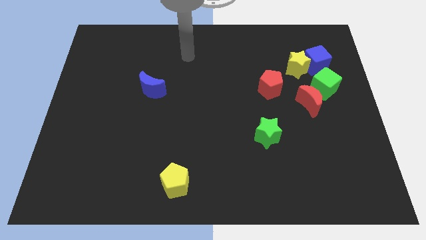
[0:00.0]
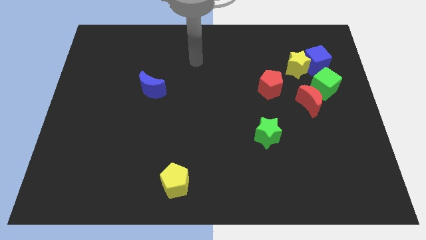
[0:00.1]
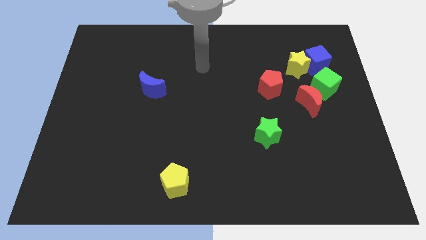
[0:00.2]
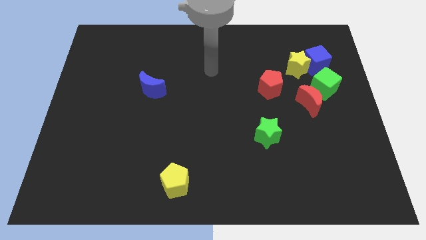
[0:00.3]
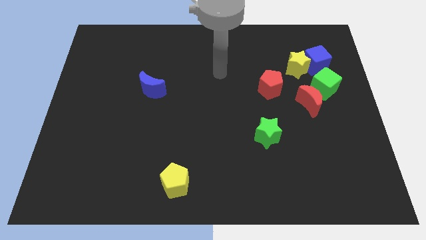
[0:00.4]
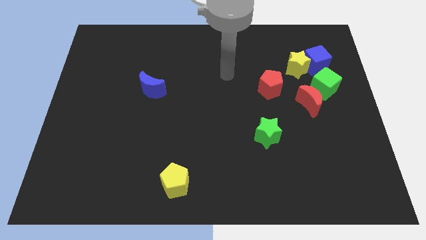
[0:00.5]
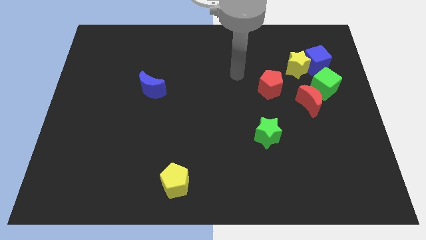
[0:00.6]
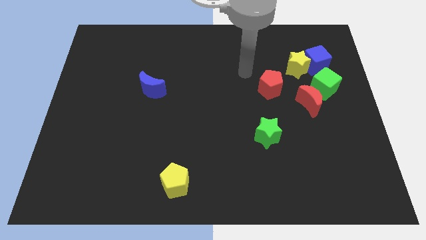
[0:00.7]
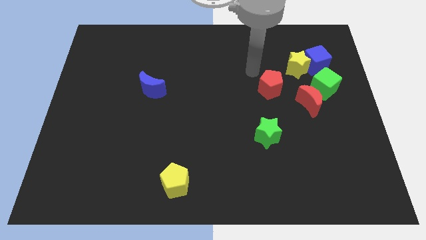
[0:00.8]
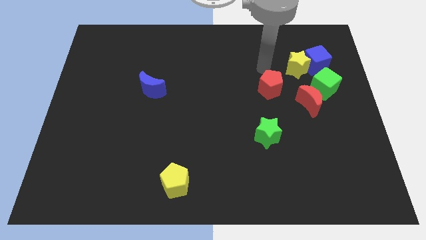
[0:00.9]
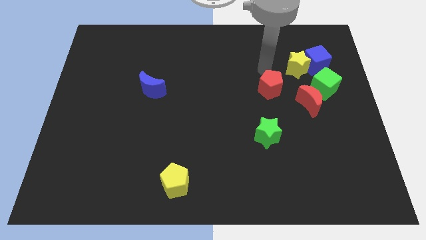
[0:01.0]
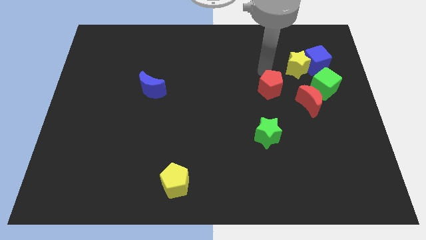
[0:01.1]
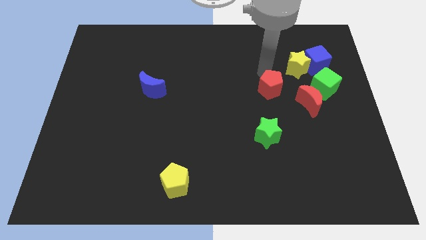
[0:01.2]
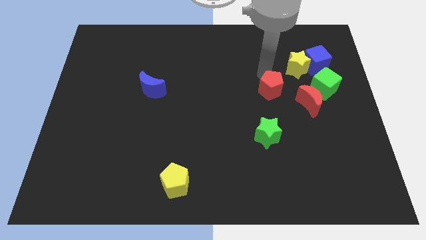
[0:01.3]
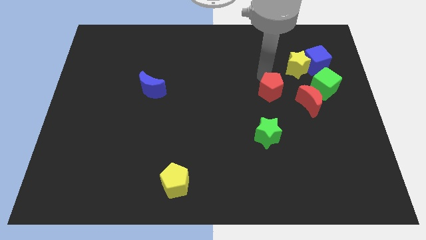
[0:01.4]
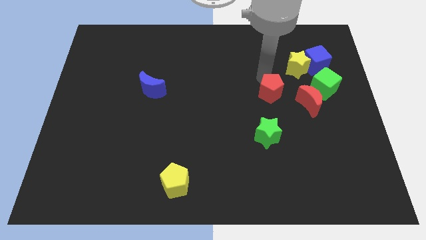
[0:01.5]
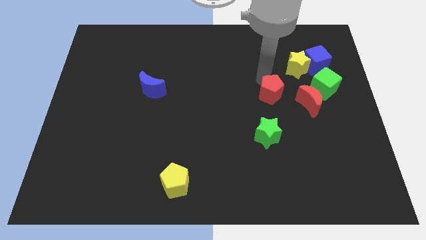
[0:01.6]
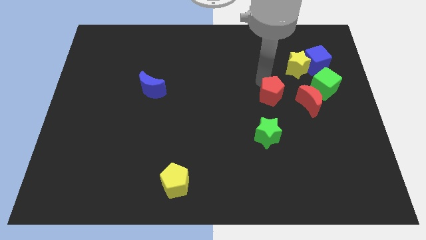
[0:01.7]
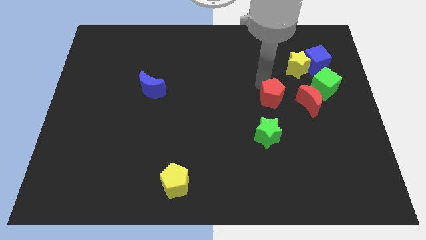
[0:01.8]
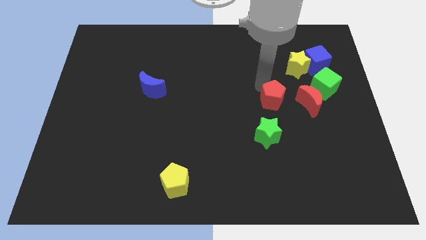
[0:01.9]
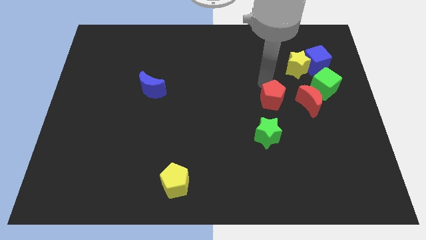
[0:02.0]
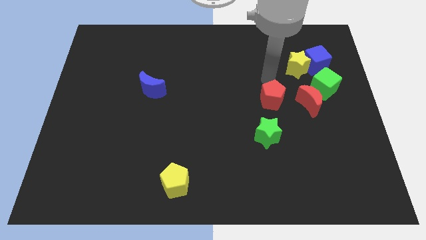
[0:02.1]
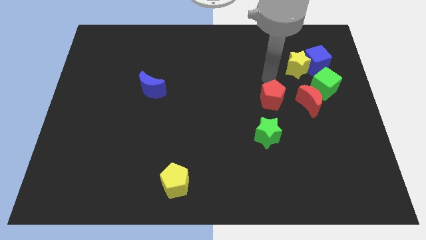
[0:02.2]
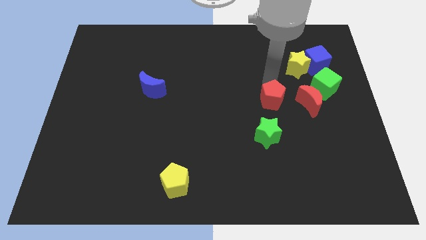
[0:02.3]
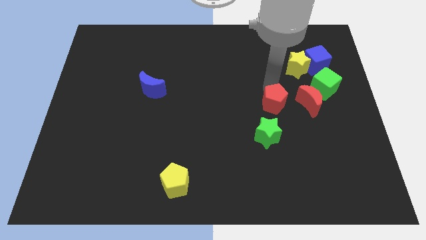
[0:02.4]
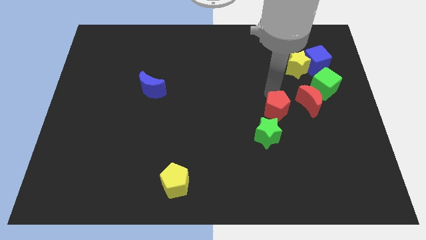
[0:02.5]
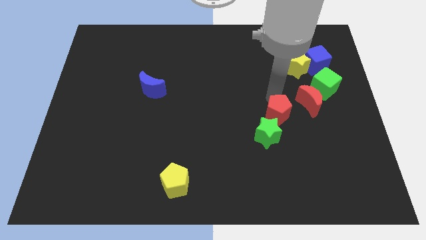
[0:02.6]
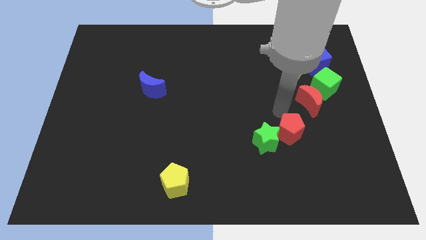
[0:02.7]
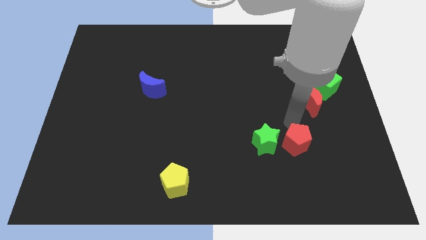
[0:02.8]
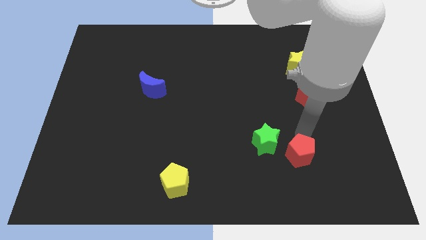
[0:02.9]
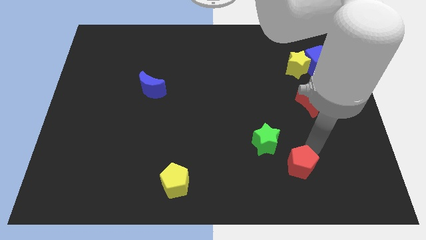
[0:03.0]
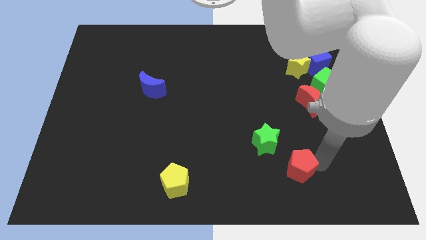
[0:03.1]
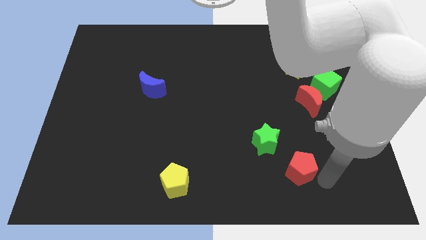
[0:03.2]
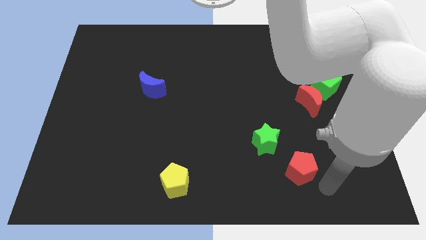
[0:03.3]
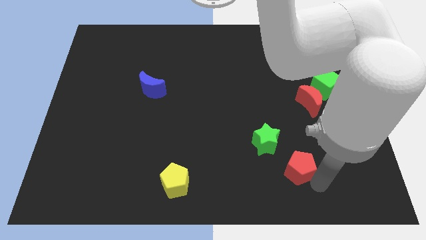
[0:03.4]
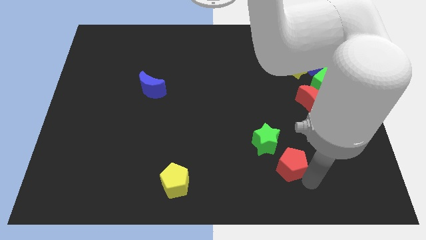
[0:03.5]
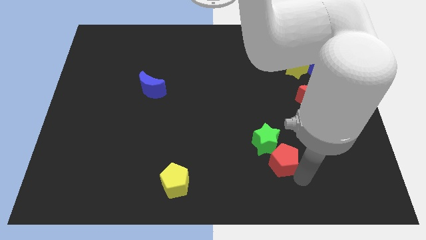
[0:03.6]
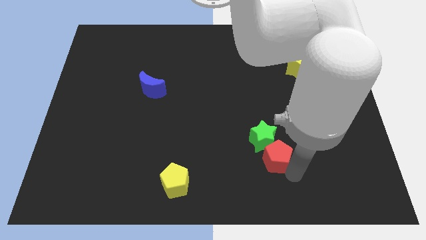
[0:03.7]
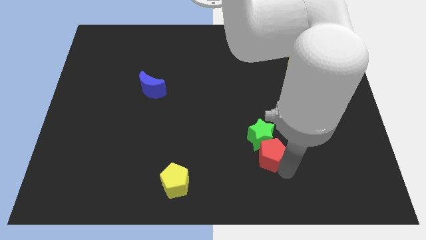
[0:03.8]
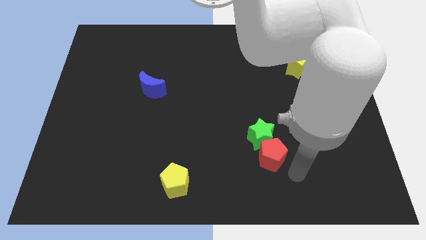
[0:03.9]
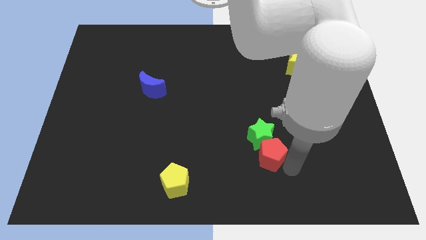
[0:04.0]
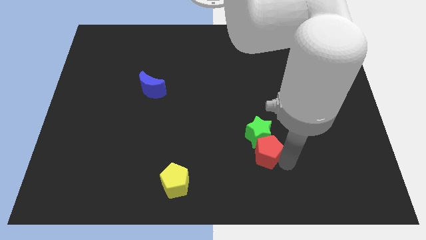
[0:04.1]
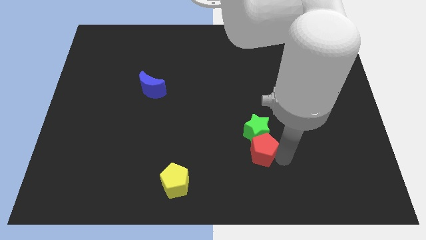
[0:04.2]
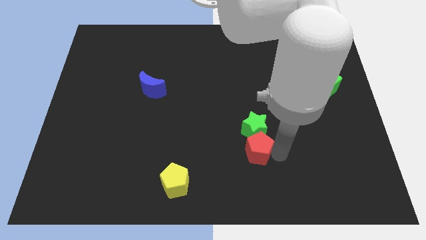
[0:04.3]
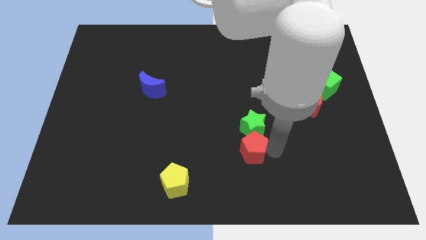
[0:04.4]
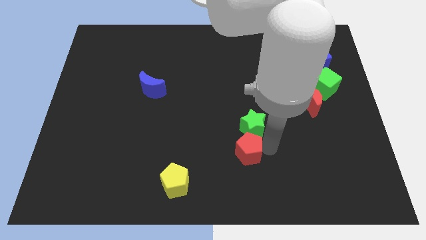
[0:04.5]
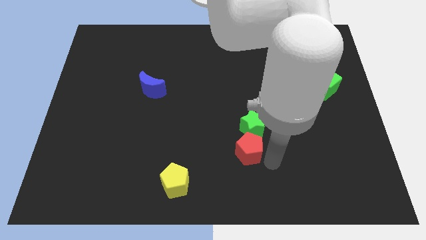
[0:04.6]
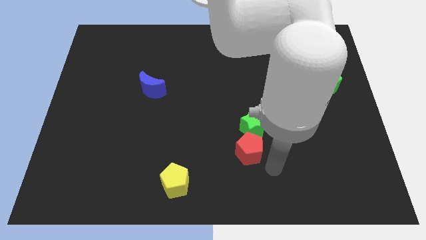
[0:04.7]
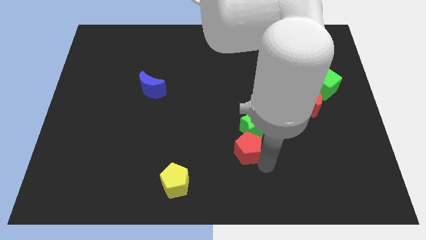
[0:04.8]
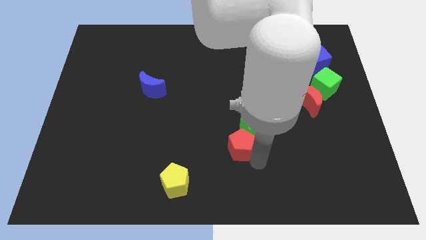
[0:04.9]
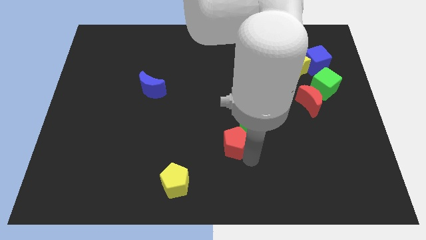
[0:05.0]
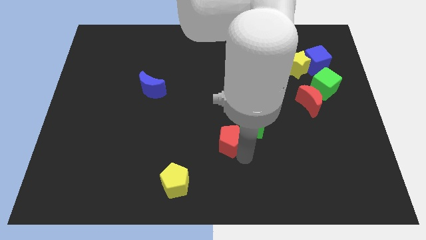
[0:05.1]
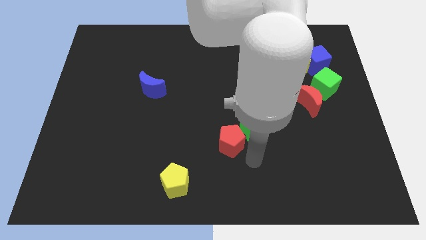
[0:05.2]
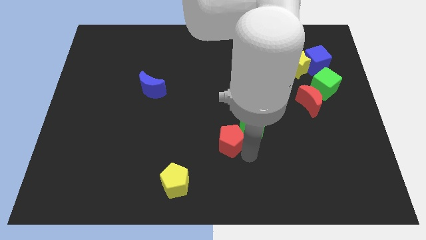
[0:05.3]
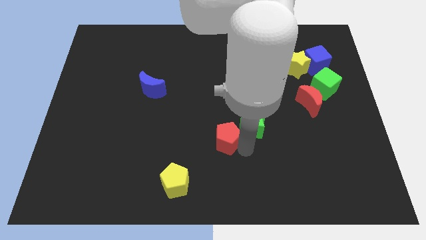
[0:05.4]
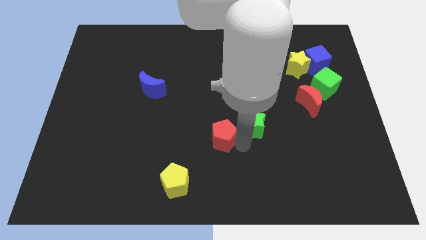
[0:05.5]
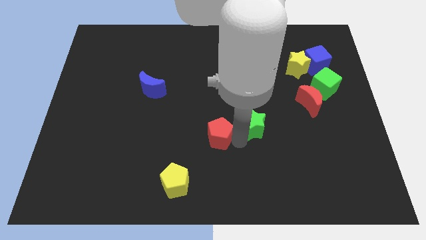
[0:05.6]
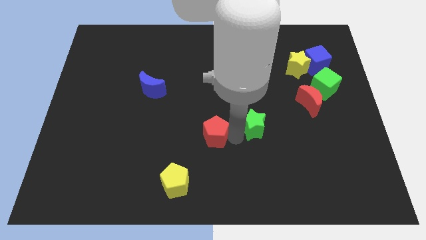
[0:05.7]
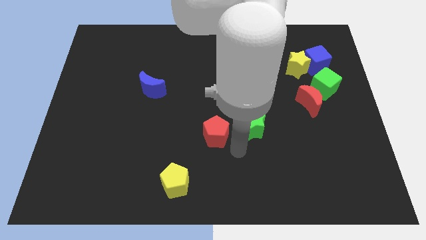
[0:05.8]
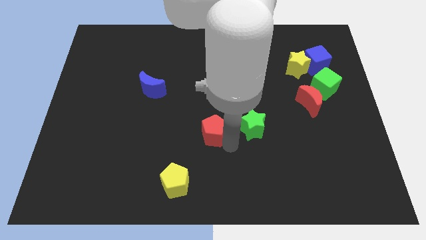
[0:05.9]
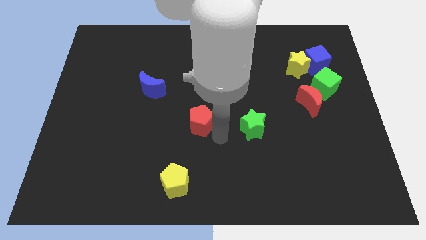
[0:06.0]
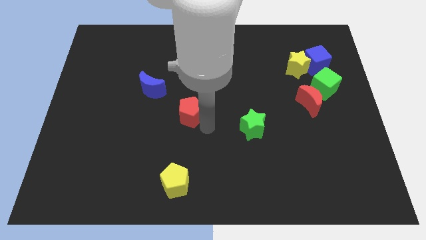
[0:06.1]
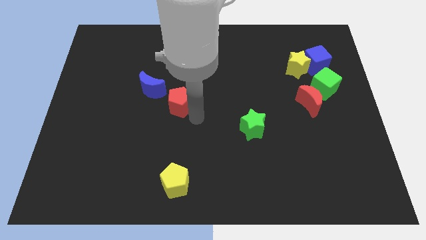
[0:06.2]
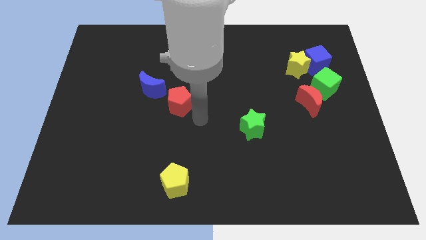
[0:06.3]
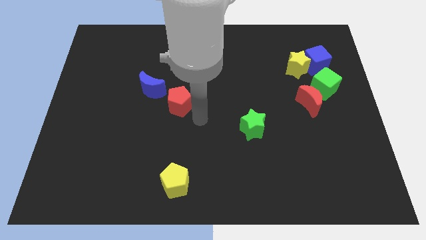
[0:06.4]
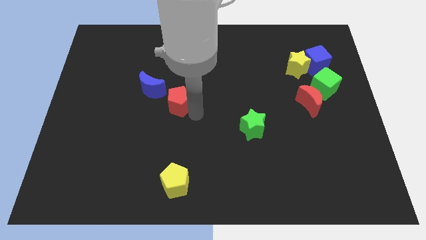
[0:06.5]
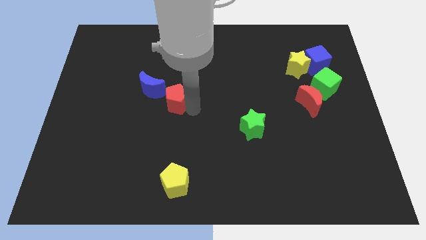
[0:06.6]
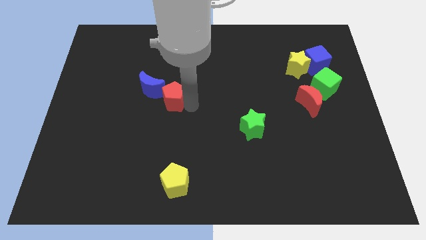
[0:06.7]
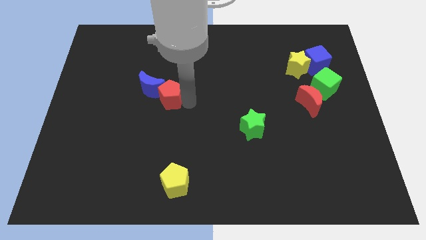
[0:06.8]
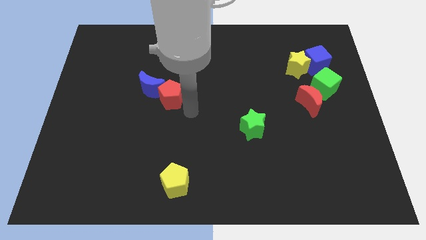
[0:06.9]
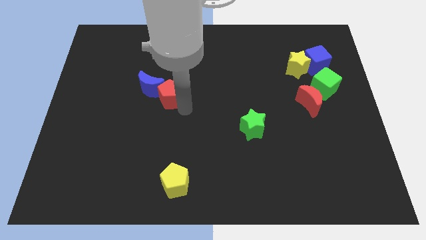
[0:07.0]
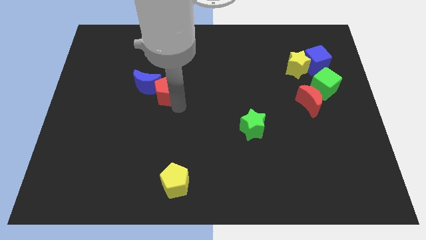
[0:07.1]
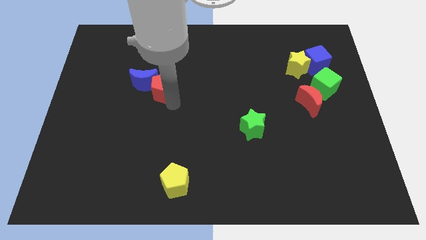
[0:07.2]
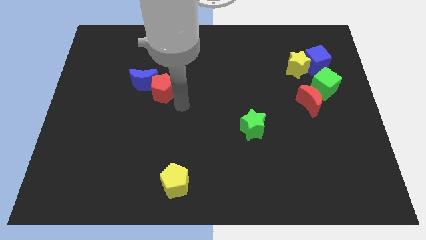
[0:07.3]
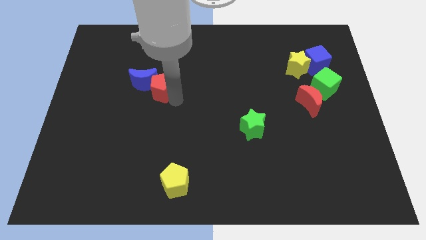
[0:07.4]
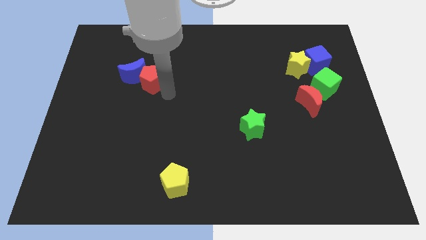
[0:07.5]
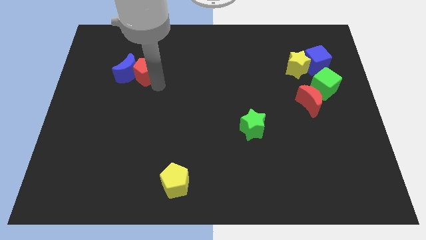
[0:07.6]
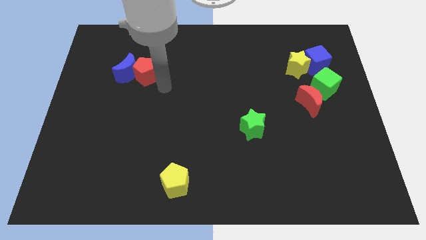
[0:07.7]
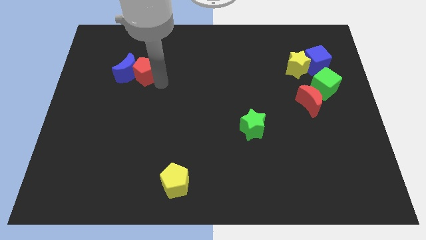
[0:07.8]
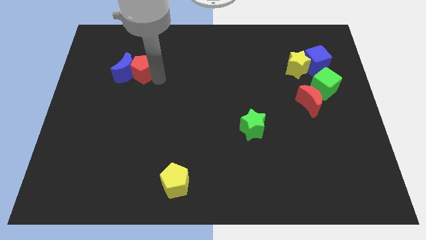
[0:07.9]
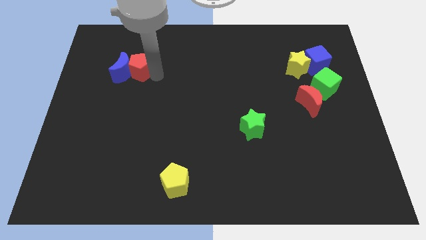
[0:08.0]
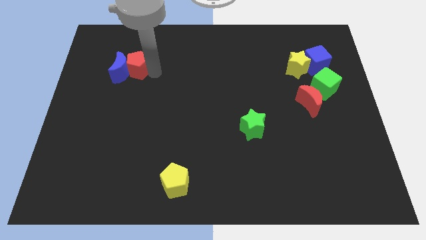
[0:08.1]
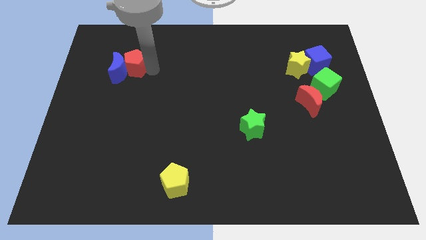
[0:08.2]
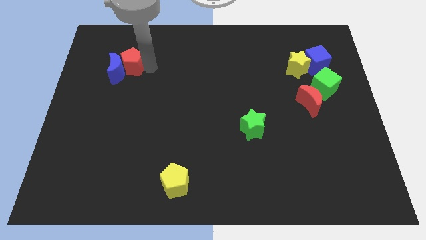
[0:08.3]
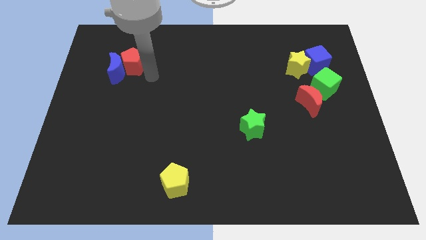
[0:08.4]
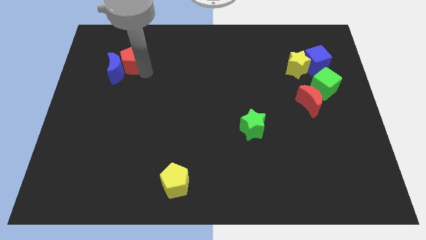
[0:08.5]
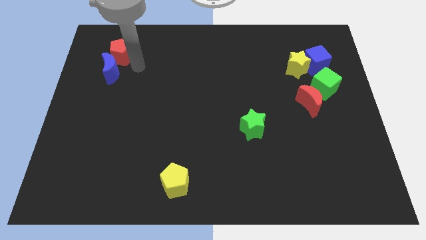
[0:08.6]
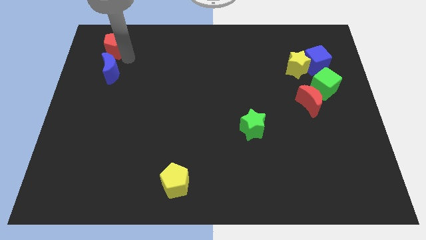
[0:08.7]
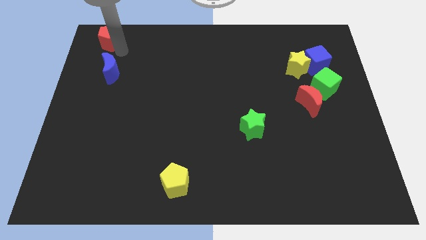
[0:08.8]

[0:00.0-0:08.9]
push the red pentagon to the top left of the board
